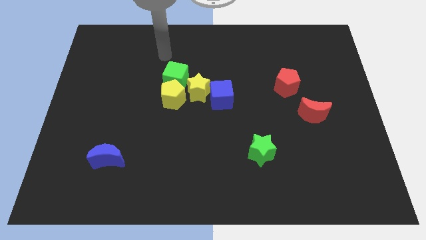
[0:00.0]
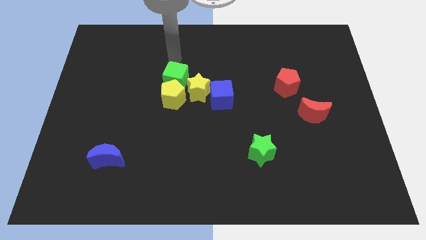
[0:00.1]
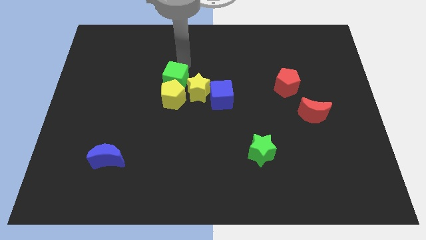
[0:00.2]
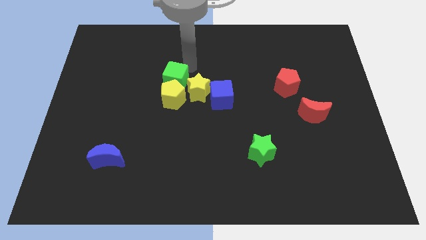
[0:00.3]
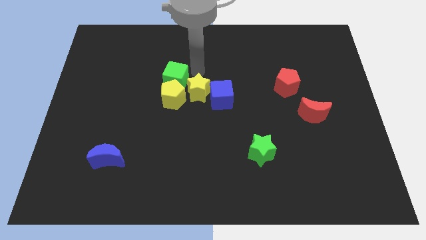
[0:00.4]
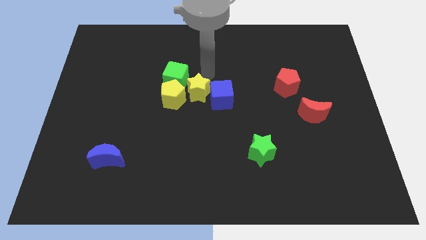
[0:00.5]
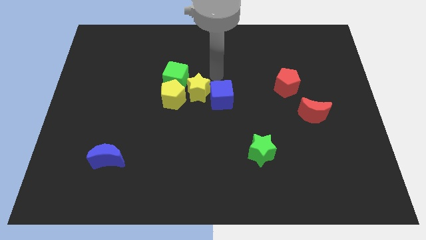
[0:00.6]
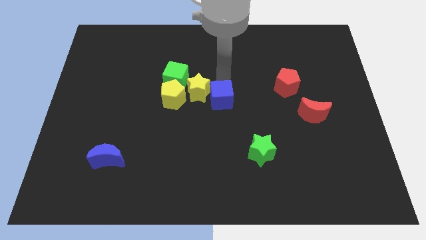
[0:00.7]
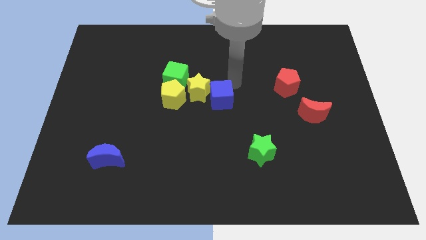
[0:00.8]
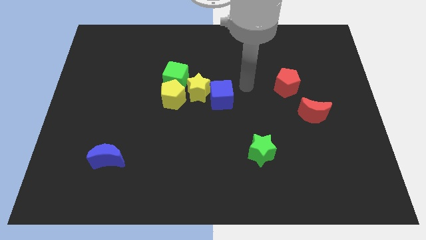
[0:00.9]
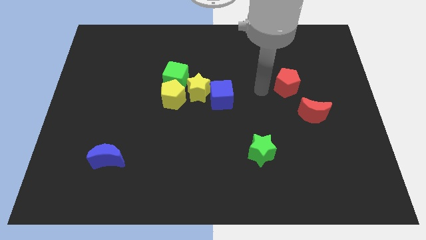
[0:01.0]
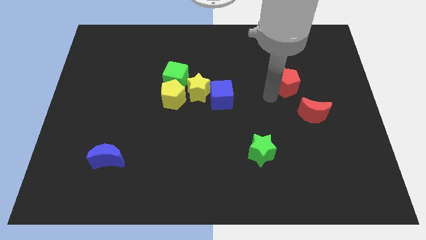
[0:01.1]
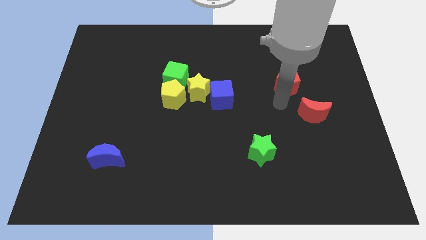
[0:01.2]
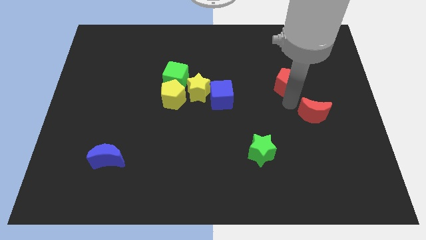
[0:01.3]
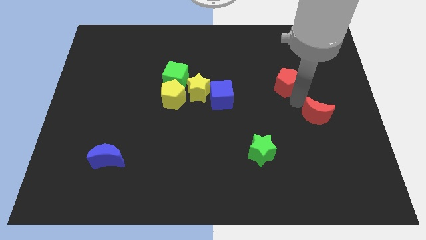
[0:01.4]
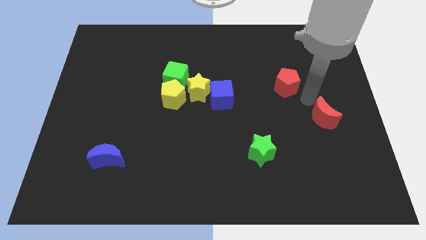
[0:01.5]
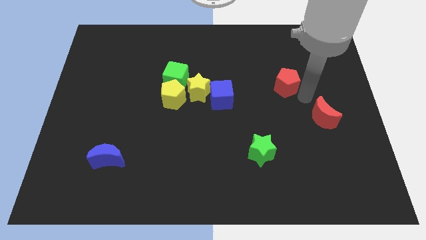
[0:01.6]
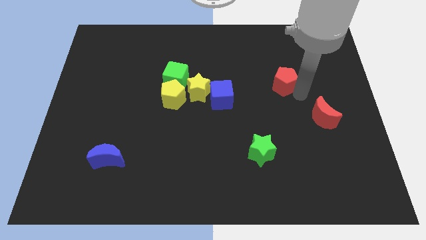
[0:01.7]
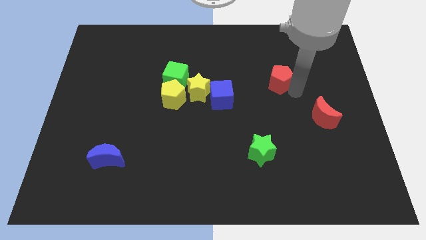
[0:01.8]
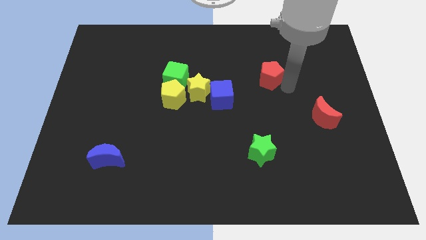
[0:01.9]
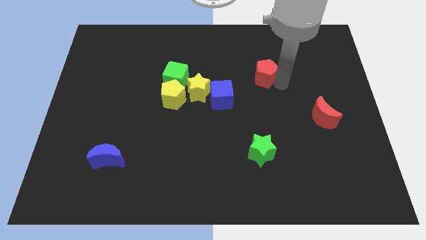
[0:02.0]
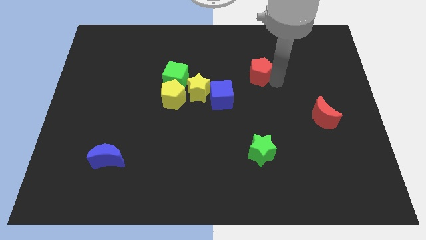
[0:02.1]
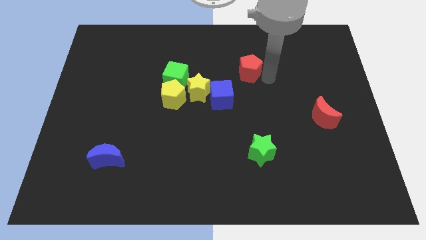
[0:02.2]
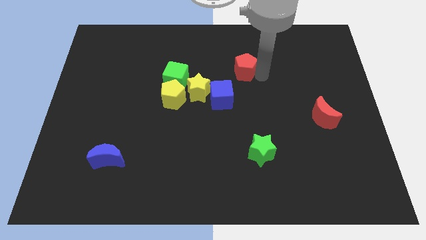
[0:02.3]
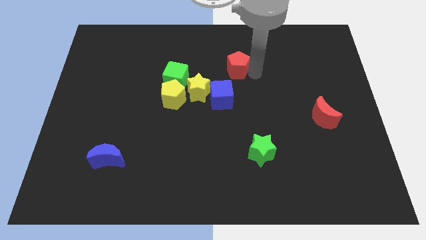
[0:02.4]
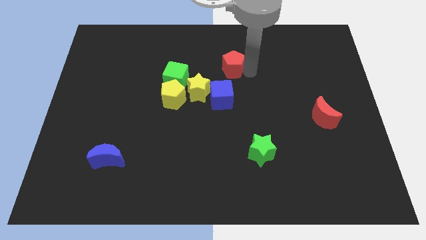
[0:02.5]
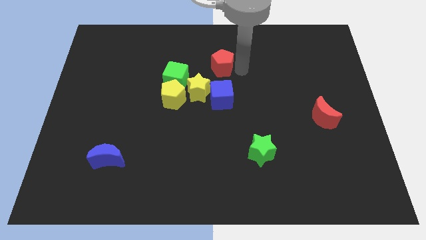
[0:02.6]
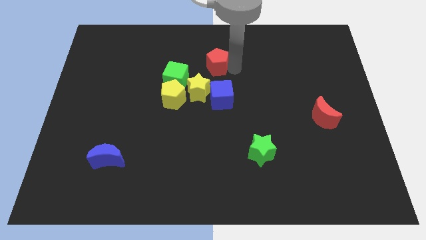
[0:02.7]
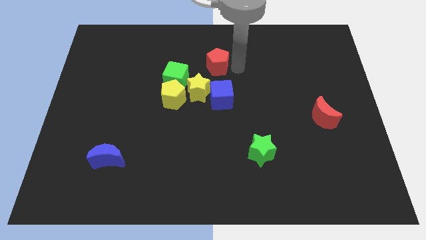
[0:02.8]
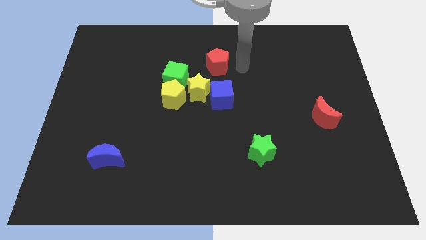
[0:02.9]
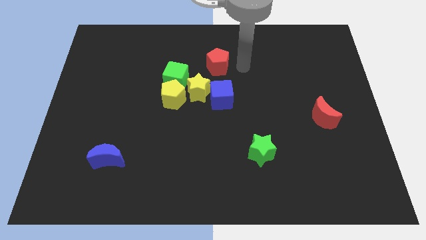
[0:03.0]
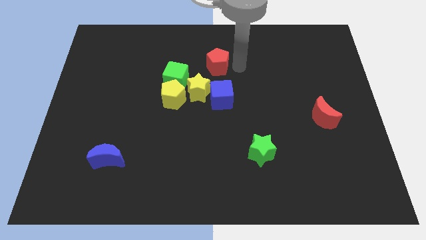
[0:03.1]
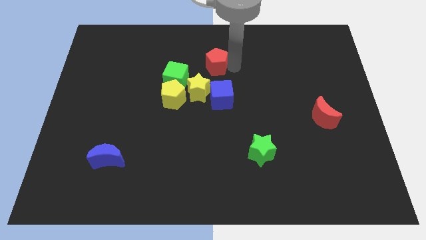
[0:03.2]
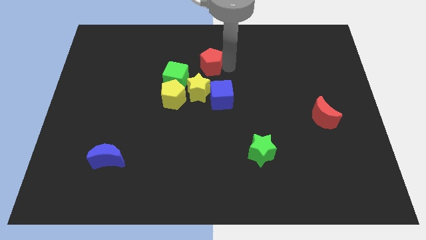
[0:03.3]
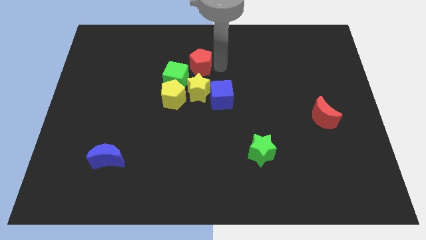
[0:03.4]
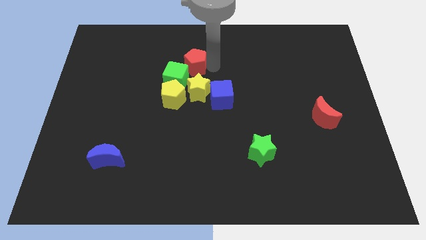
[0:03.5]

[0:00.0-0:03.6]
slide the red pentagon left

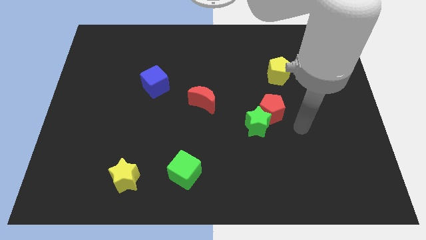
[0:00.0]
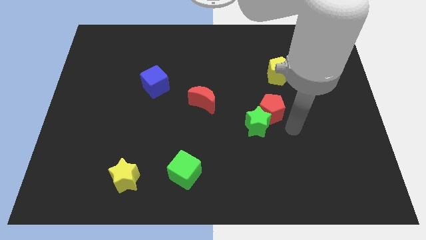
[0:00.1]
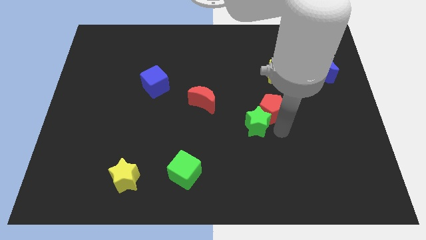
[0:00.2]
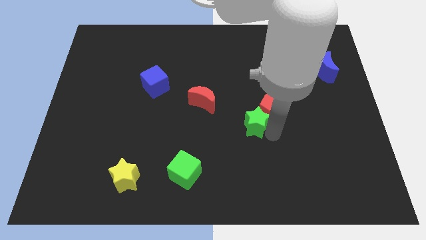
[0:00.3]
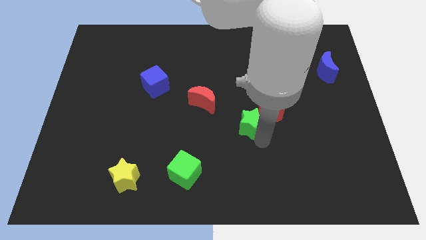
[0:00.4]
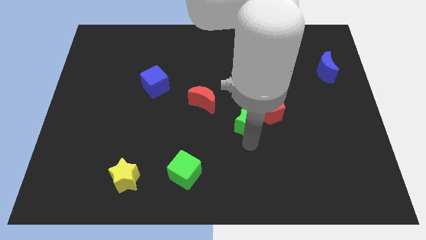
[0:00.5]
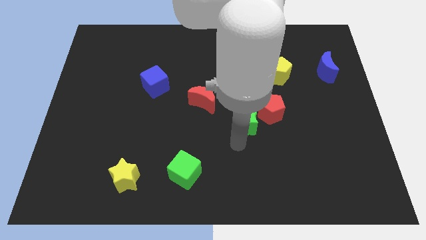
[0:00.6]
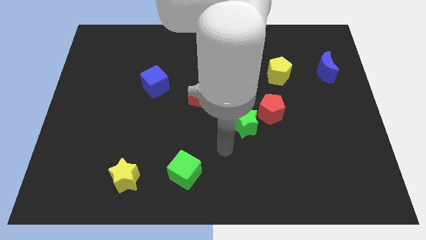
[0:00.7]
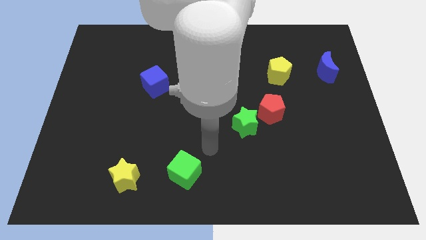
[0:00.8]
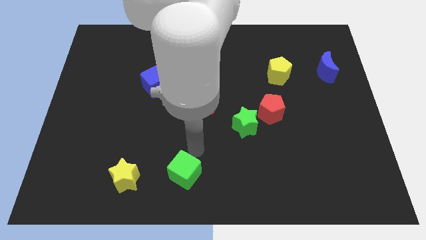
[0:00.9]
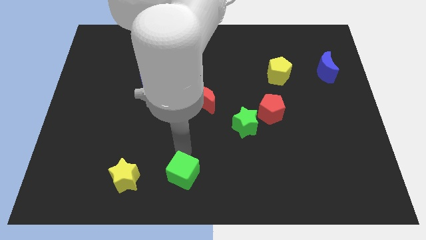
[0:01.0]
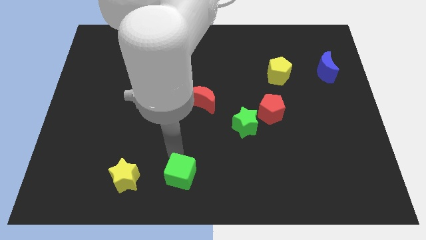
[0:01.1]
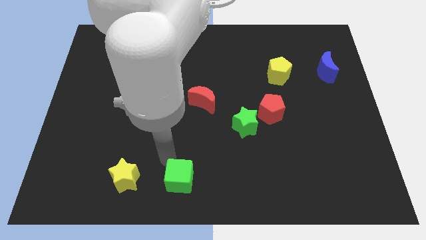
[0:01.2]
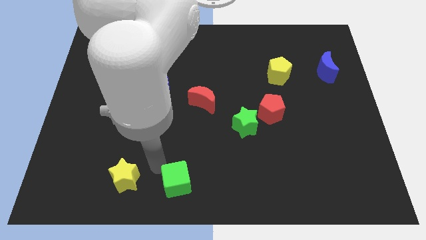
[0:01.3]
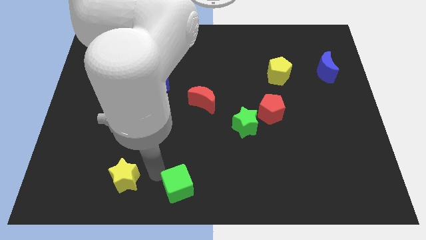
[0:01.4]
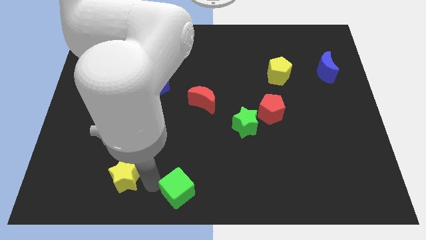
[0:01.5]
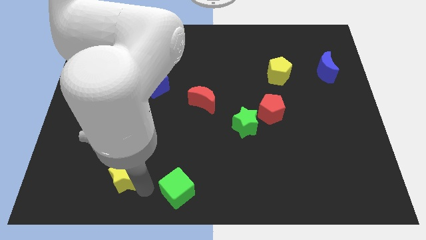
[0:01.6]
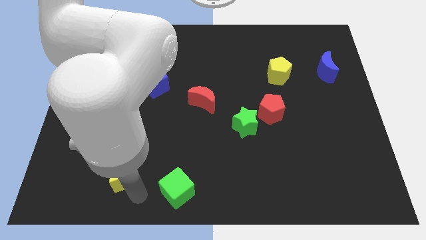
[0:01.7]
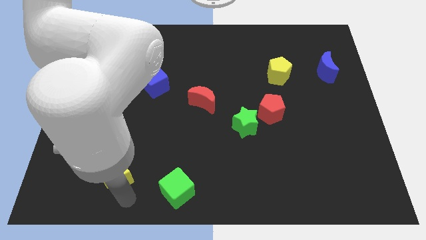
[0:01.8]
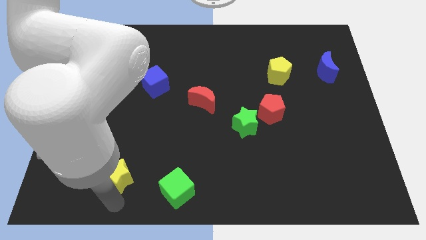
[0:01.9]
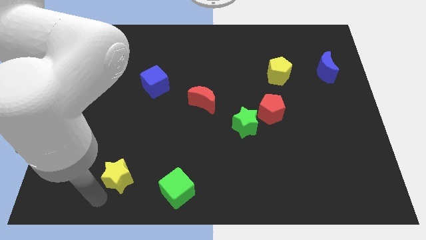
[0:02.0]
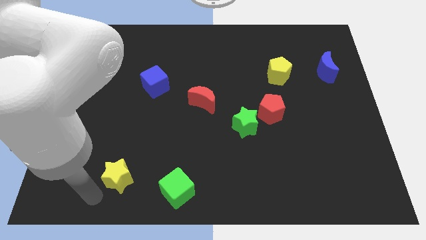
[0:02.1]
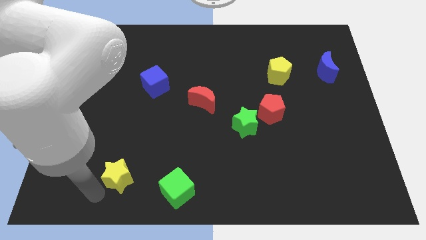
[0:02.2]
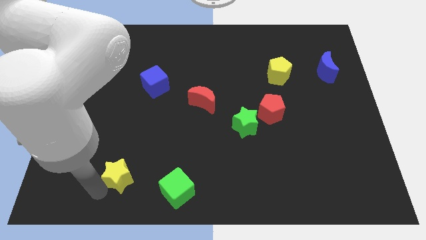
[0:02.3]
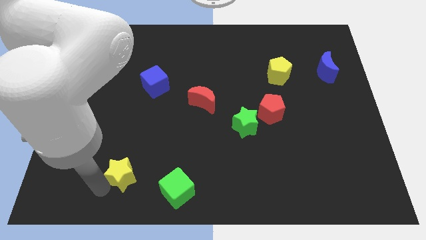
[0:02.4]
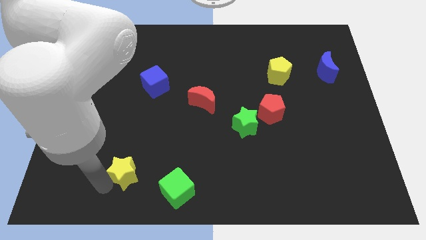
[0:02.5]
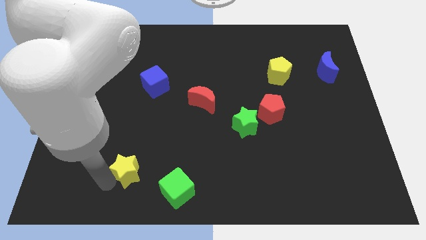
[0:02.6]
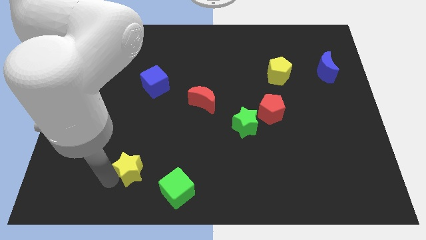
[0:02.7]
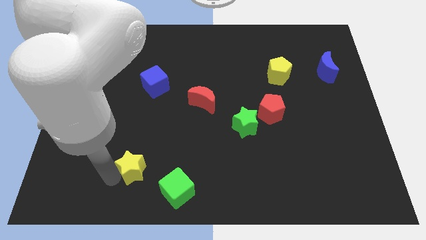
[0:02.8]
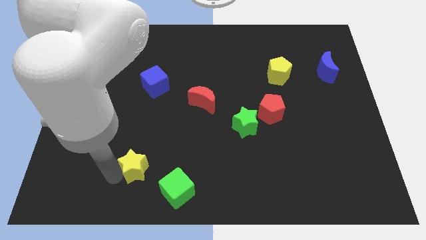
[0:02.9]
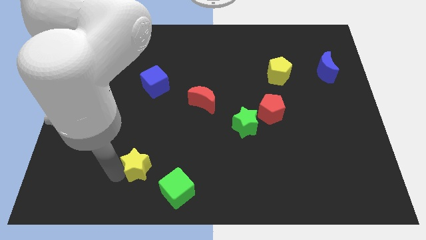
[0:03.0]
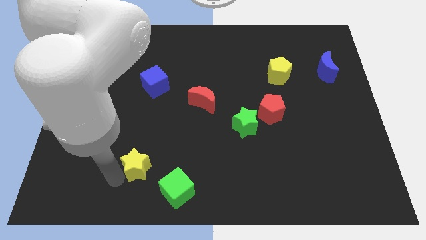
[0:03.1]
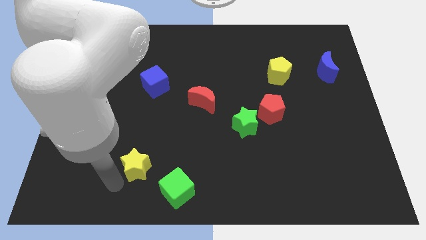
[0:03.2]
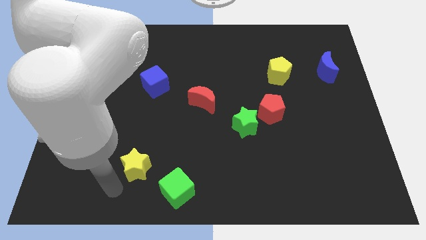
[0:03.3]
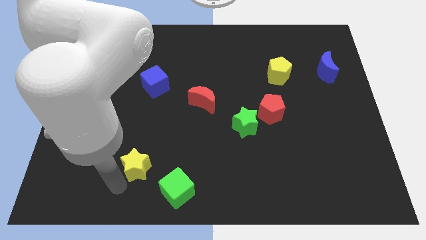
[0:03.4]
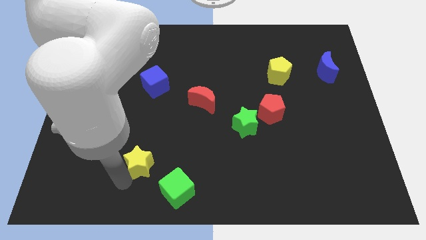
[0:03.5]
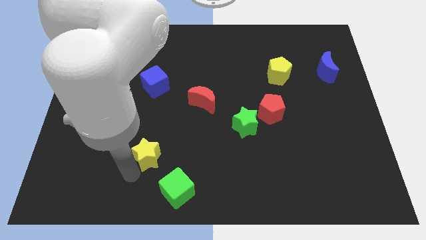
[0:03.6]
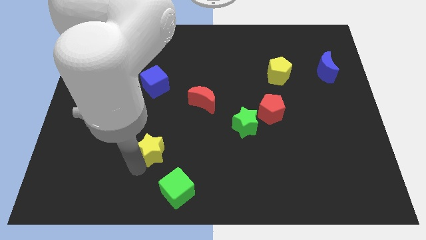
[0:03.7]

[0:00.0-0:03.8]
move the yellow star a little diagonally upwards and right

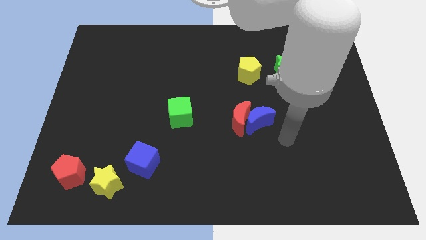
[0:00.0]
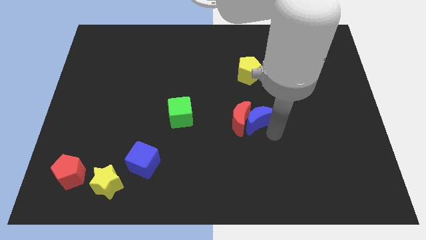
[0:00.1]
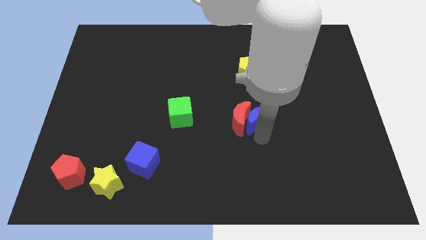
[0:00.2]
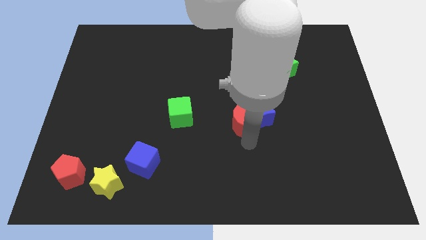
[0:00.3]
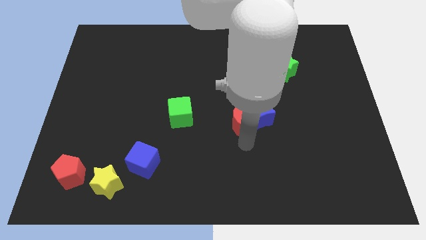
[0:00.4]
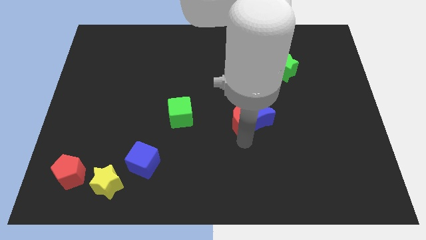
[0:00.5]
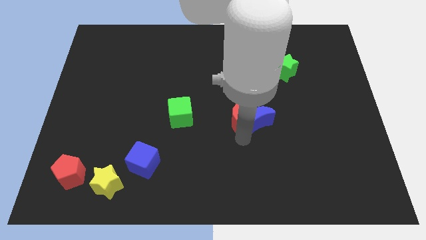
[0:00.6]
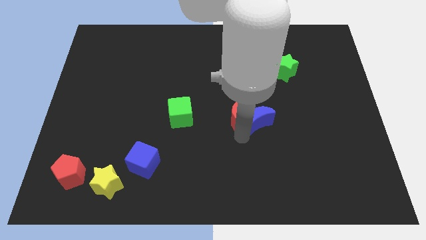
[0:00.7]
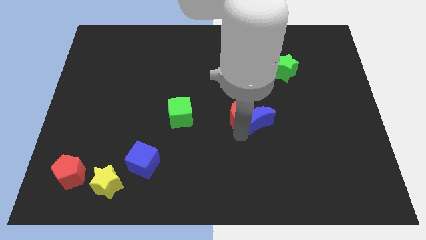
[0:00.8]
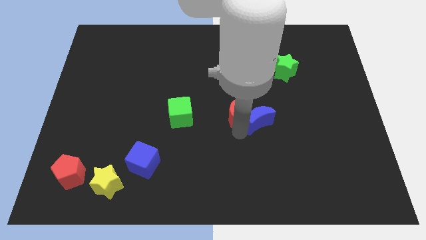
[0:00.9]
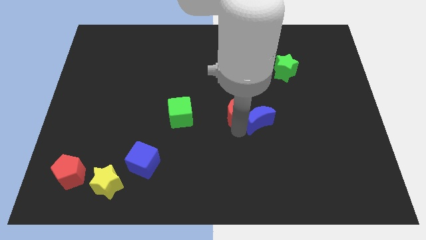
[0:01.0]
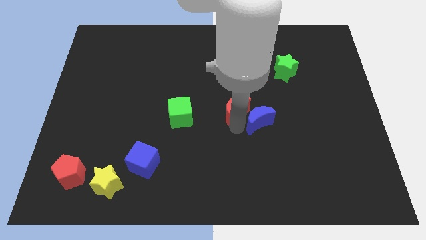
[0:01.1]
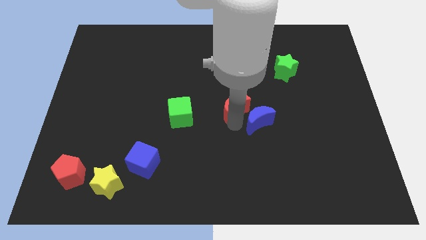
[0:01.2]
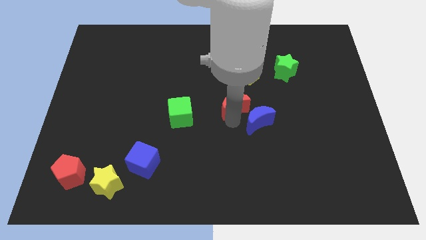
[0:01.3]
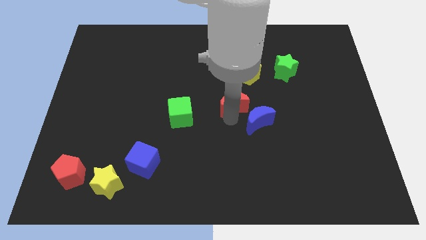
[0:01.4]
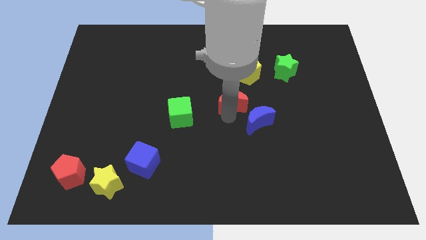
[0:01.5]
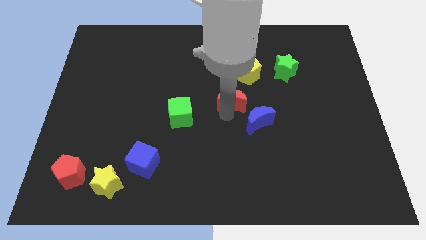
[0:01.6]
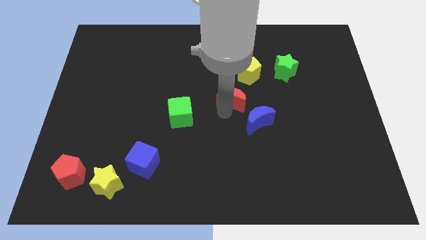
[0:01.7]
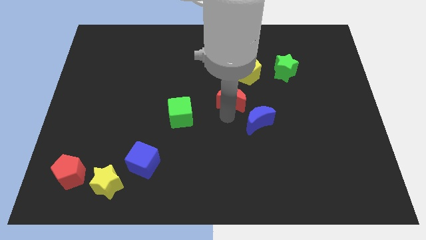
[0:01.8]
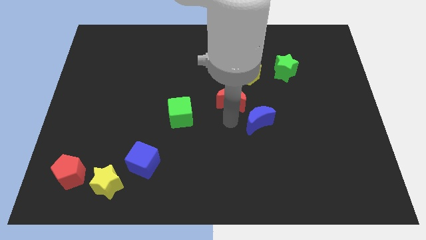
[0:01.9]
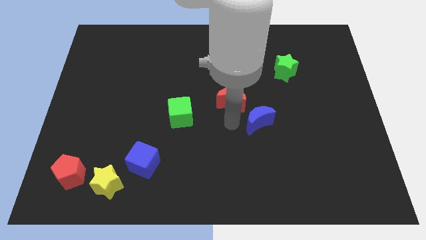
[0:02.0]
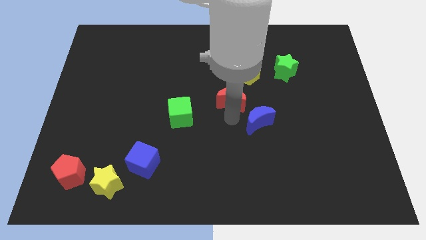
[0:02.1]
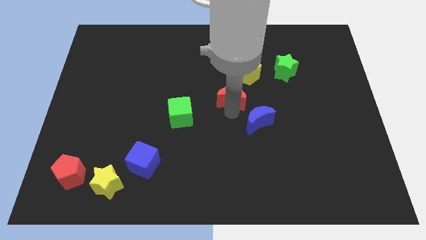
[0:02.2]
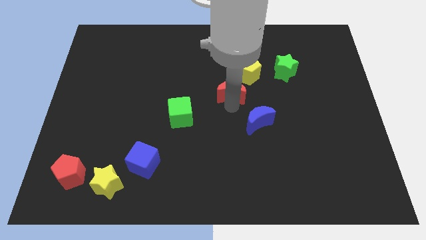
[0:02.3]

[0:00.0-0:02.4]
push the red moon upwards a little
